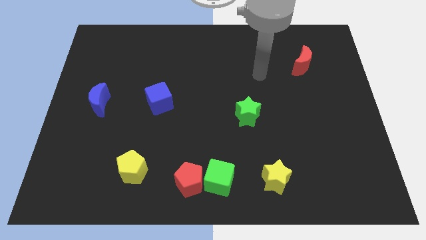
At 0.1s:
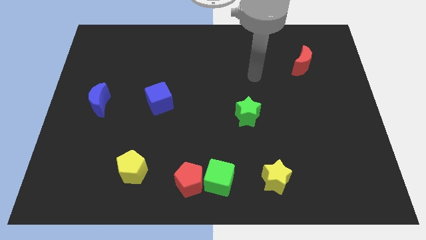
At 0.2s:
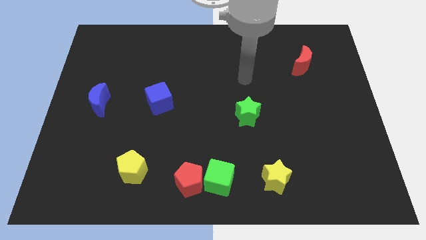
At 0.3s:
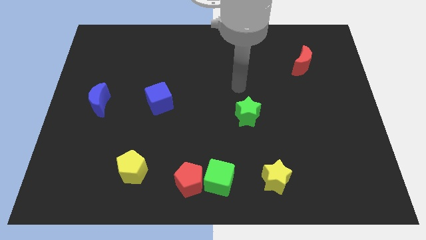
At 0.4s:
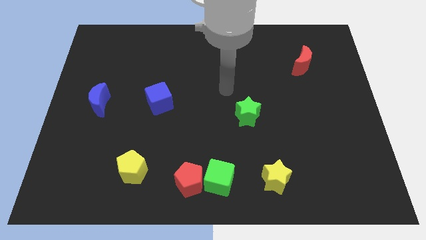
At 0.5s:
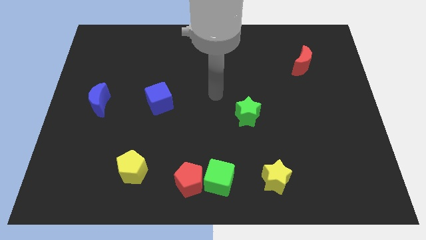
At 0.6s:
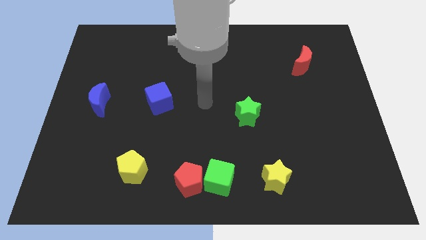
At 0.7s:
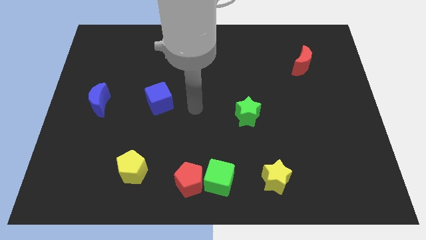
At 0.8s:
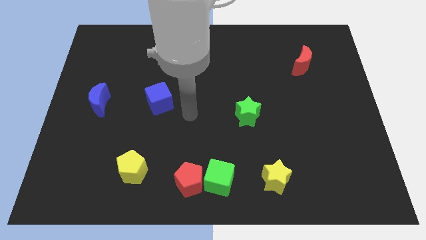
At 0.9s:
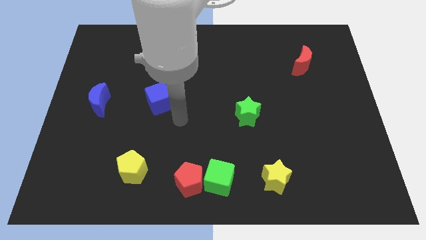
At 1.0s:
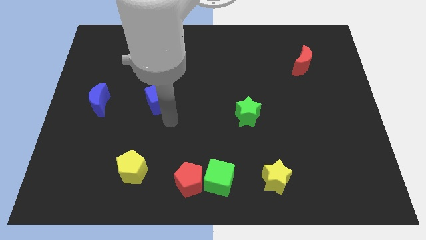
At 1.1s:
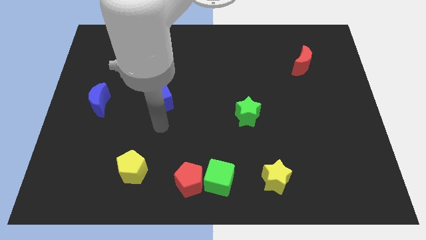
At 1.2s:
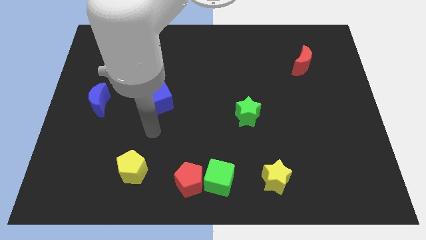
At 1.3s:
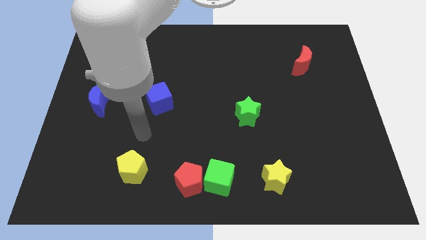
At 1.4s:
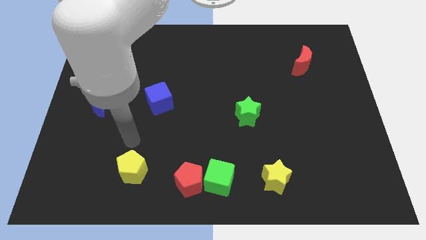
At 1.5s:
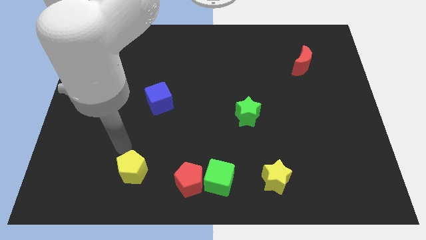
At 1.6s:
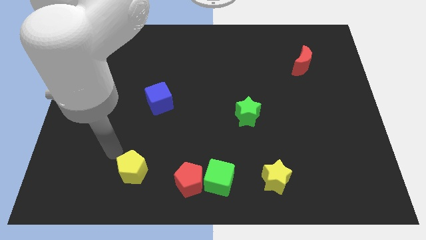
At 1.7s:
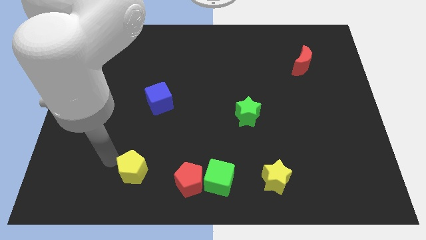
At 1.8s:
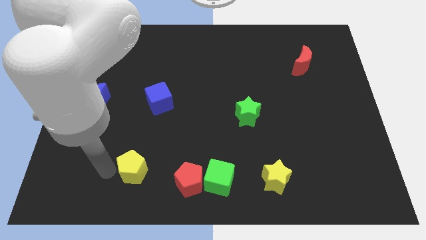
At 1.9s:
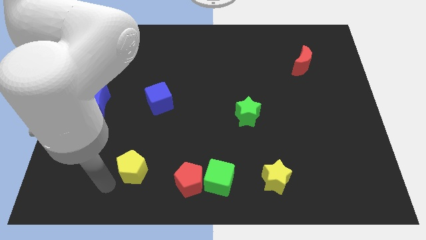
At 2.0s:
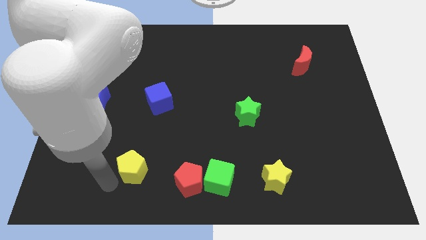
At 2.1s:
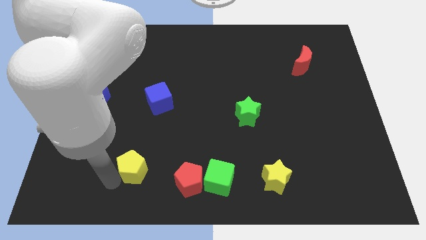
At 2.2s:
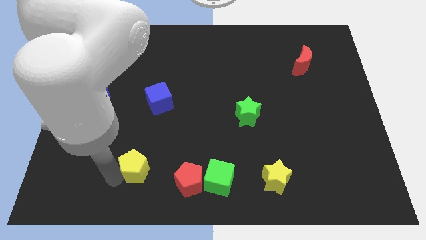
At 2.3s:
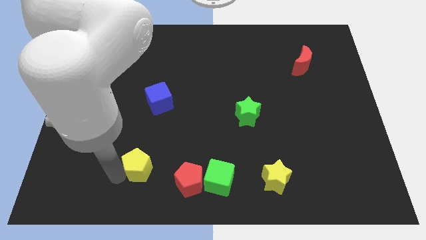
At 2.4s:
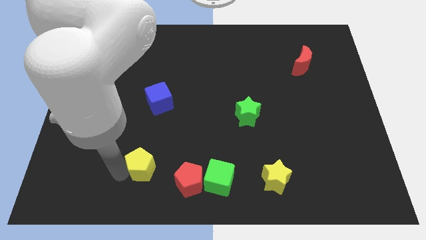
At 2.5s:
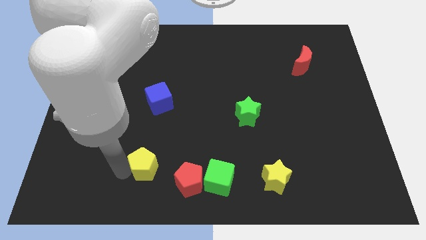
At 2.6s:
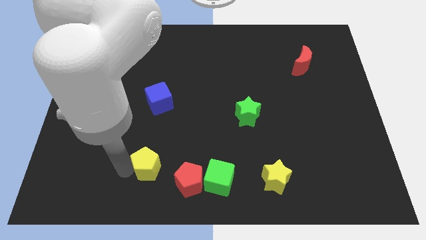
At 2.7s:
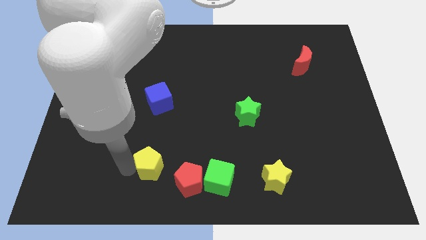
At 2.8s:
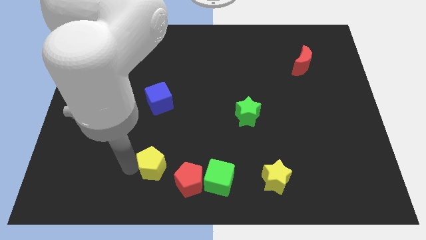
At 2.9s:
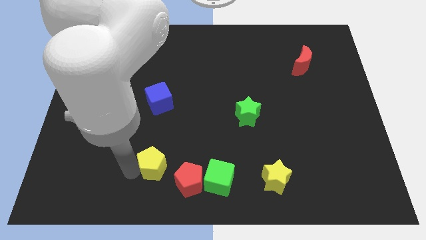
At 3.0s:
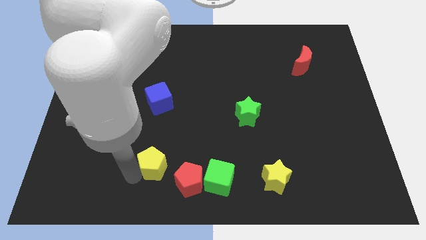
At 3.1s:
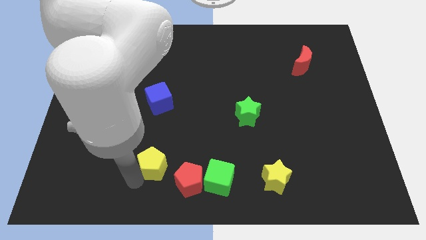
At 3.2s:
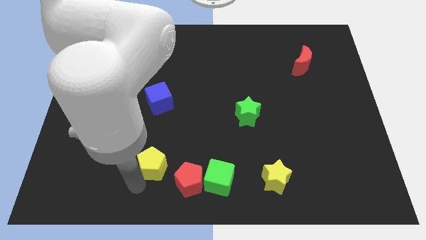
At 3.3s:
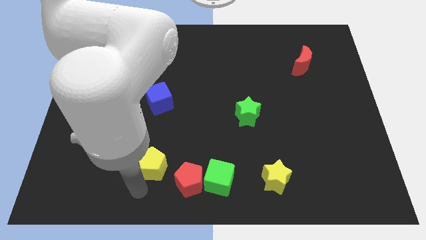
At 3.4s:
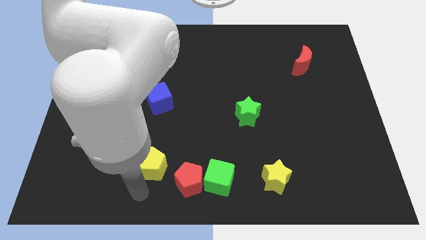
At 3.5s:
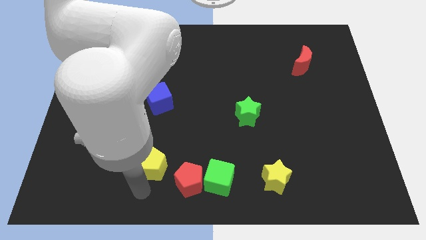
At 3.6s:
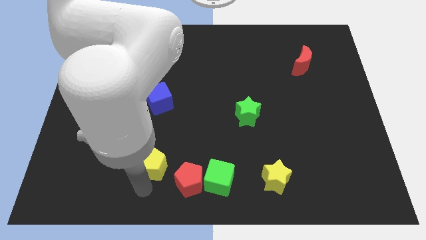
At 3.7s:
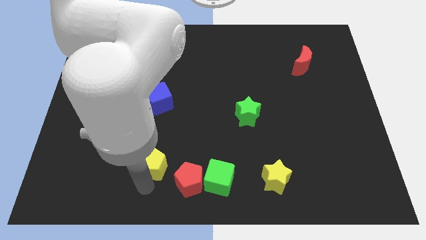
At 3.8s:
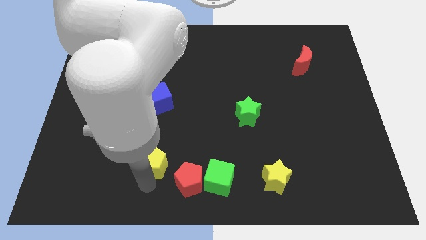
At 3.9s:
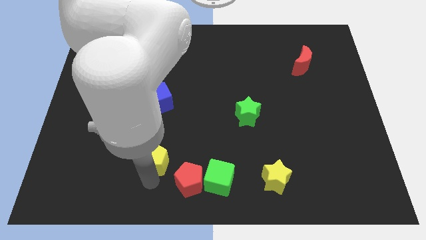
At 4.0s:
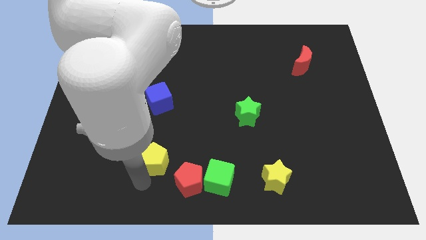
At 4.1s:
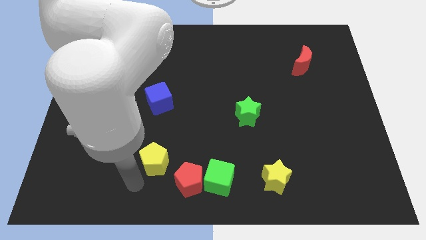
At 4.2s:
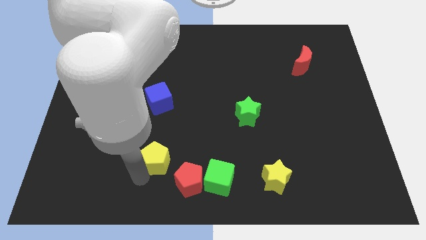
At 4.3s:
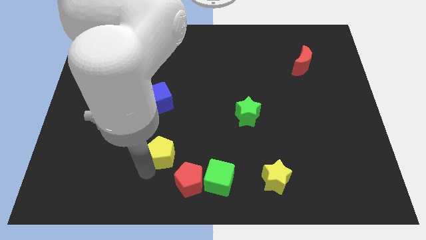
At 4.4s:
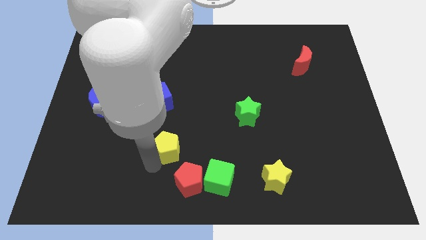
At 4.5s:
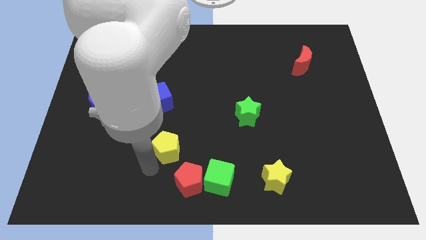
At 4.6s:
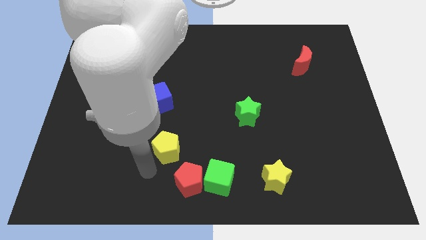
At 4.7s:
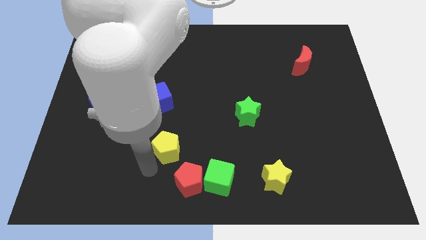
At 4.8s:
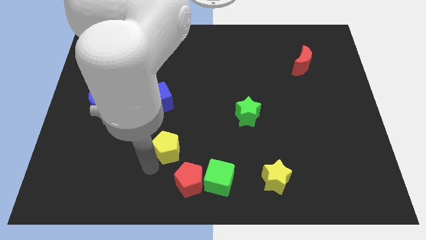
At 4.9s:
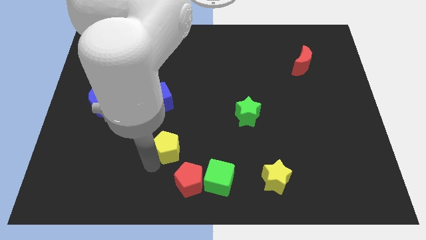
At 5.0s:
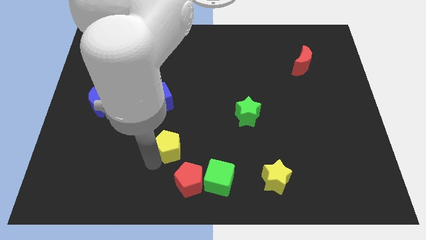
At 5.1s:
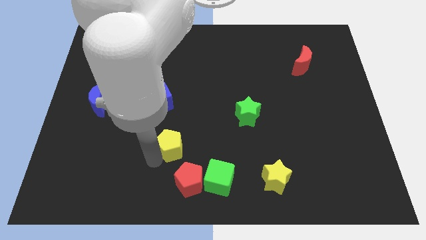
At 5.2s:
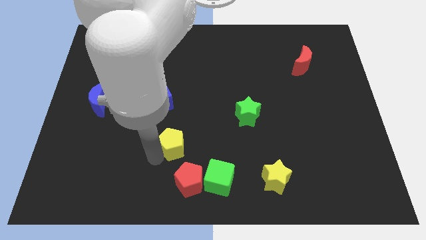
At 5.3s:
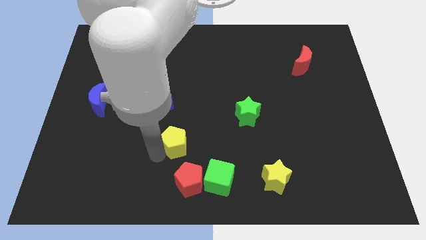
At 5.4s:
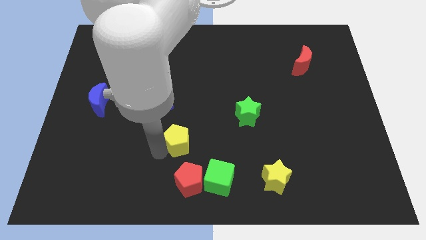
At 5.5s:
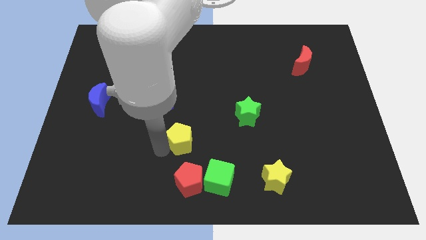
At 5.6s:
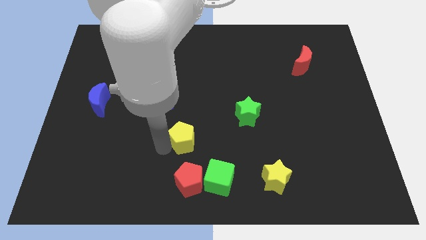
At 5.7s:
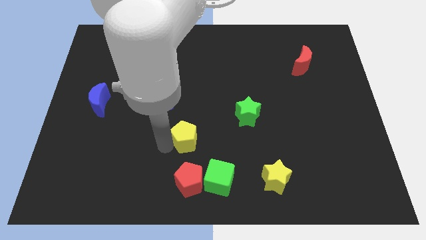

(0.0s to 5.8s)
move the yellow pentagon to the middle

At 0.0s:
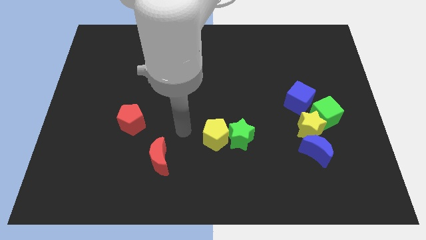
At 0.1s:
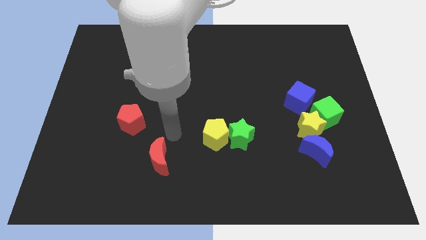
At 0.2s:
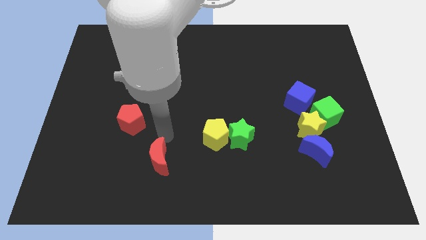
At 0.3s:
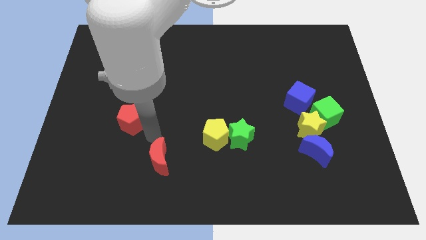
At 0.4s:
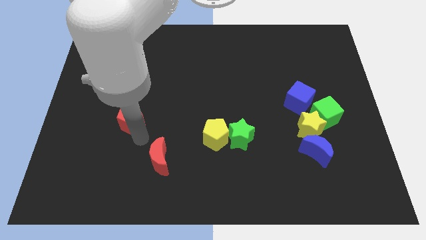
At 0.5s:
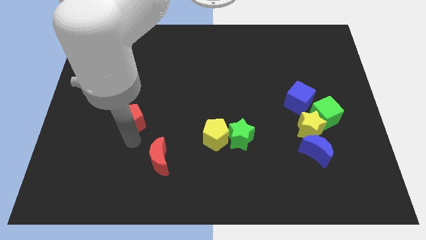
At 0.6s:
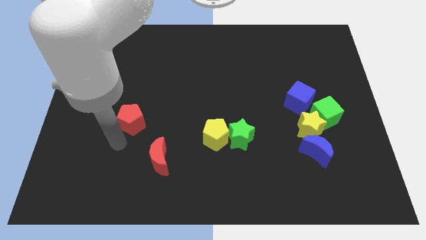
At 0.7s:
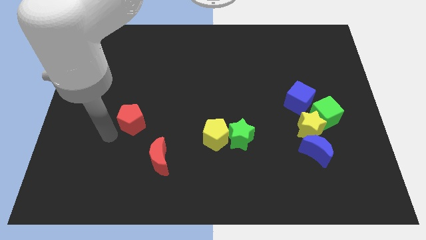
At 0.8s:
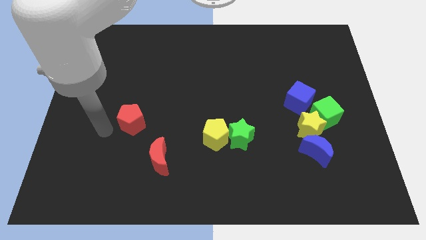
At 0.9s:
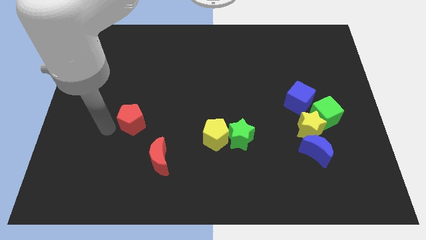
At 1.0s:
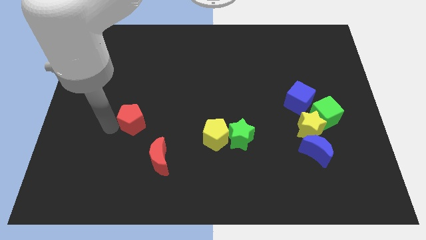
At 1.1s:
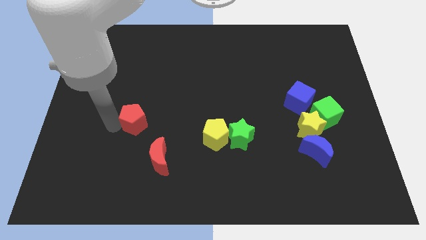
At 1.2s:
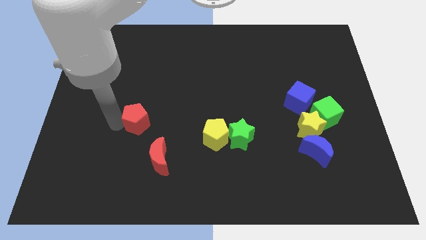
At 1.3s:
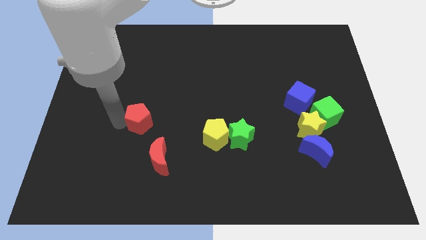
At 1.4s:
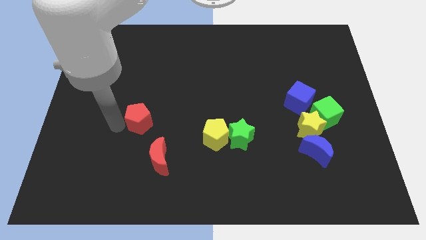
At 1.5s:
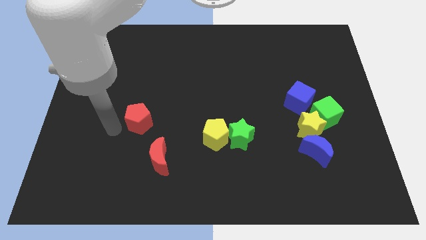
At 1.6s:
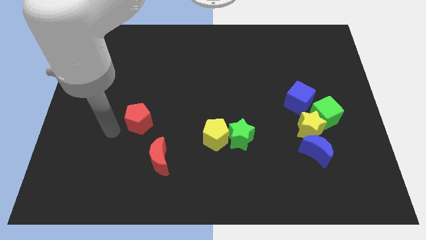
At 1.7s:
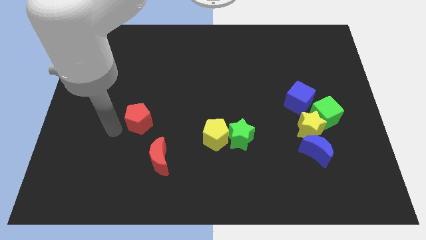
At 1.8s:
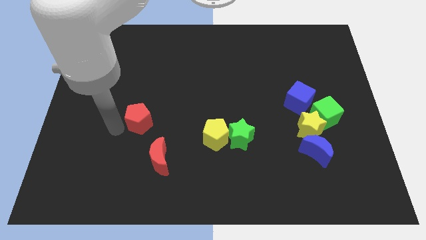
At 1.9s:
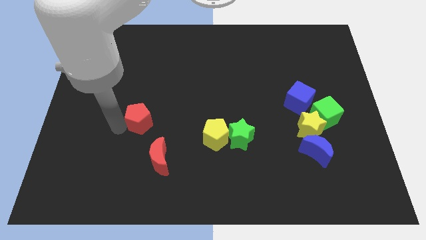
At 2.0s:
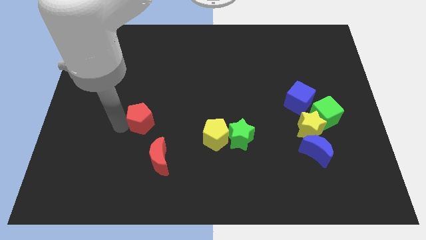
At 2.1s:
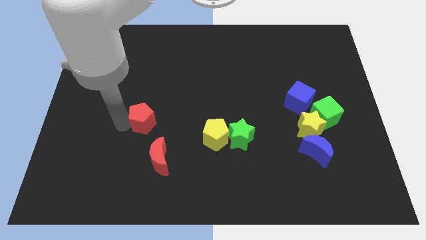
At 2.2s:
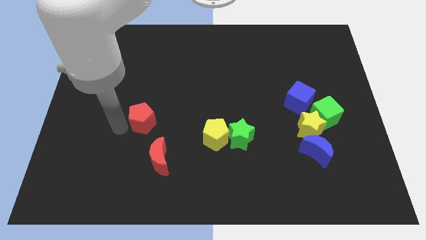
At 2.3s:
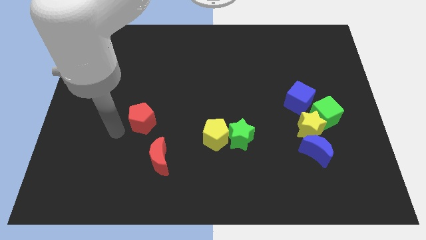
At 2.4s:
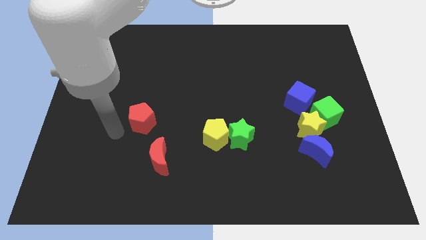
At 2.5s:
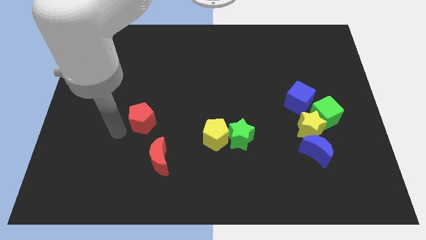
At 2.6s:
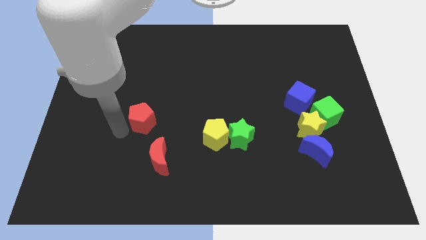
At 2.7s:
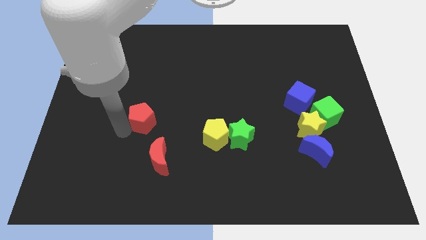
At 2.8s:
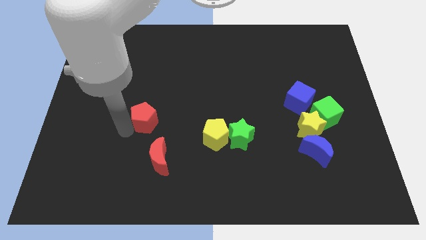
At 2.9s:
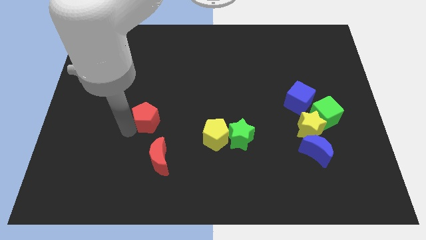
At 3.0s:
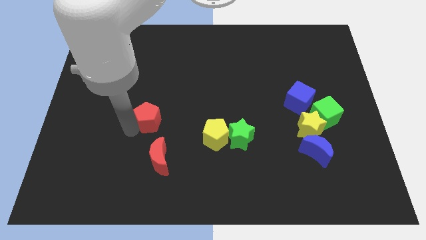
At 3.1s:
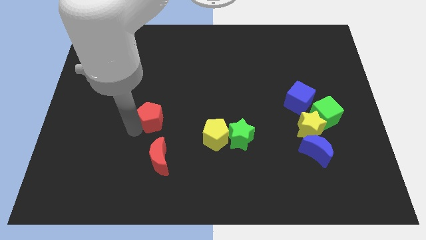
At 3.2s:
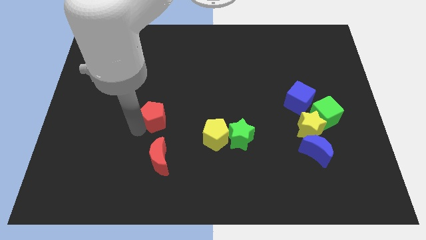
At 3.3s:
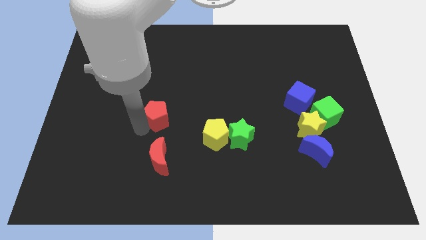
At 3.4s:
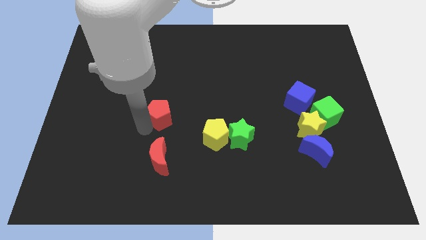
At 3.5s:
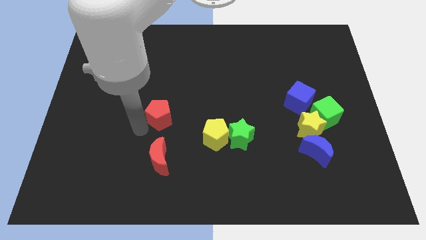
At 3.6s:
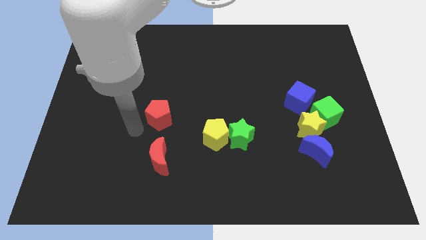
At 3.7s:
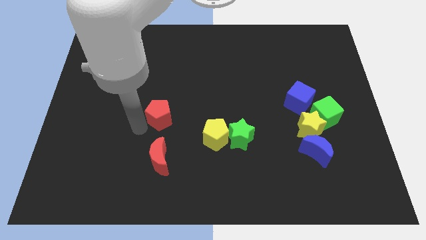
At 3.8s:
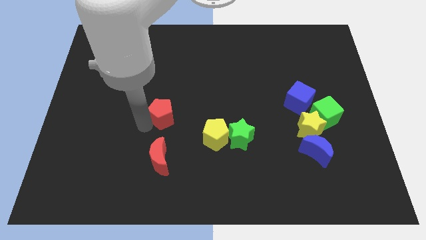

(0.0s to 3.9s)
put the red pentagon to the center of the board
